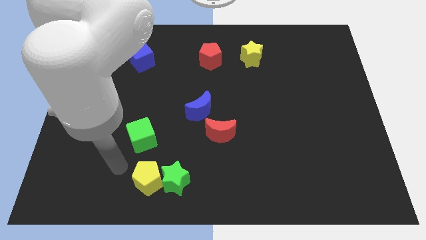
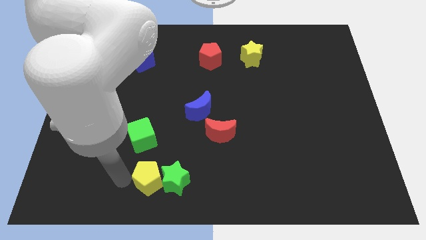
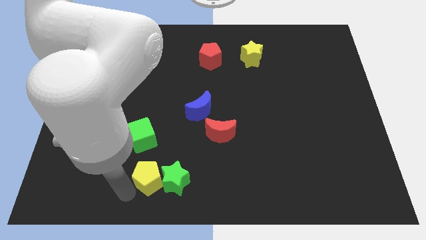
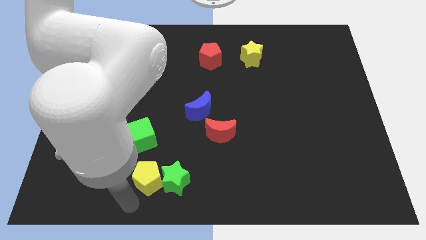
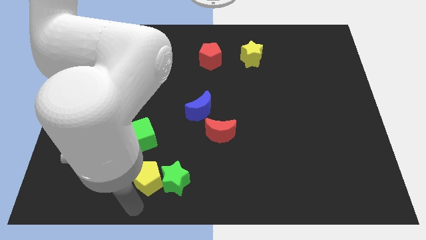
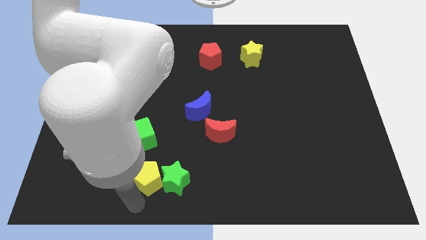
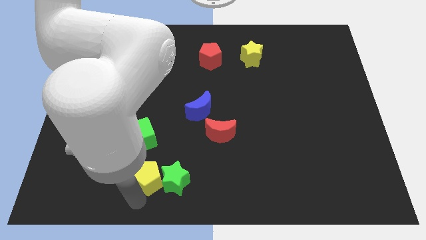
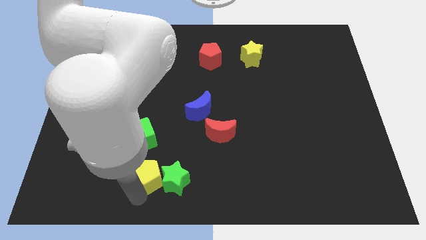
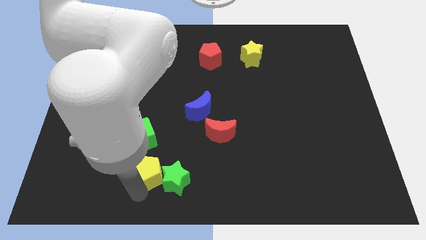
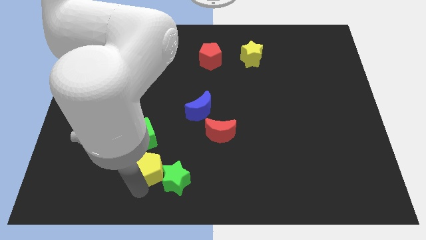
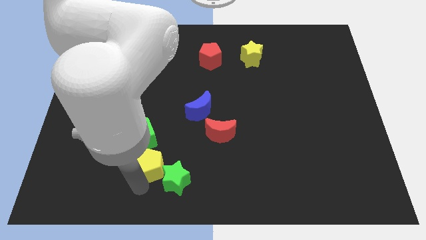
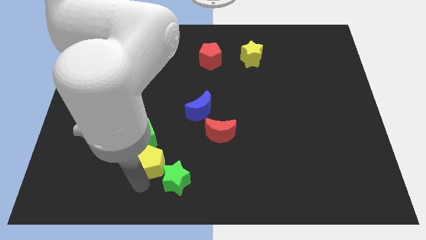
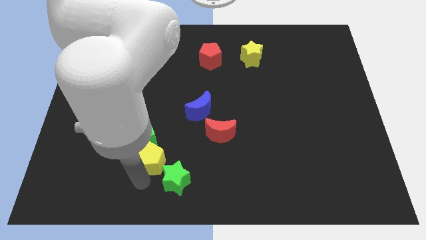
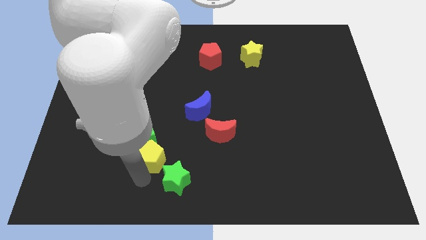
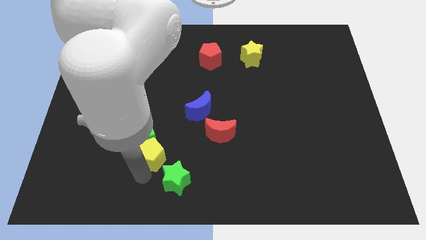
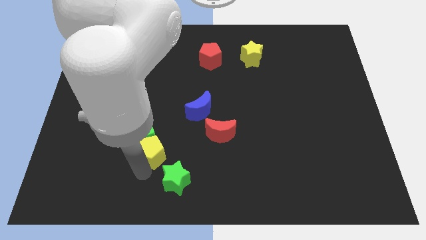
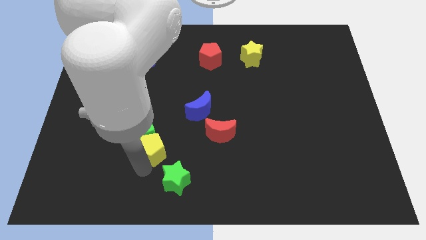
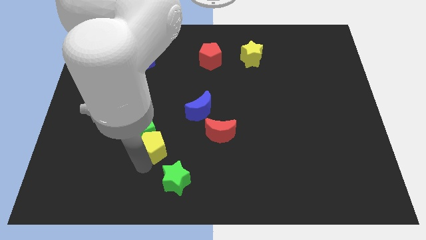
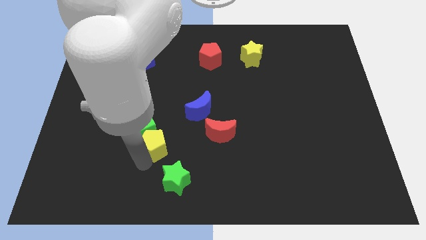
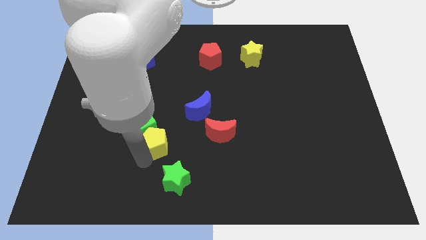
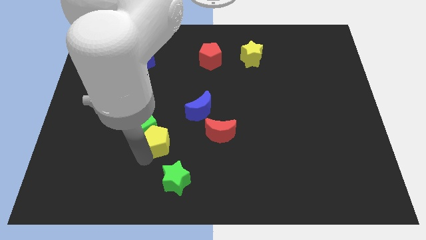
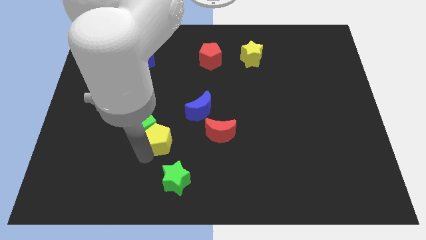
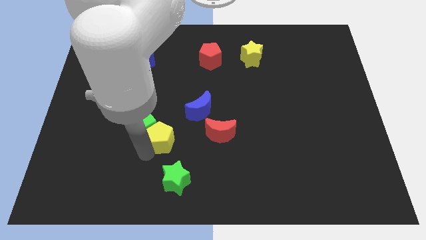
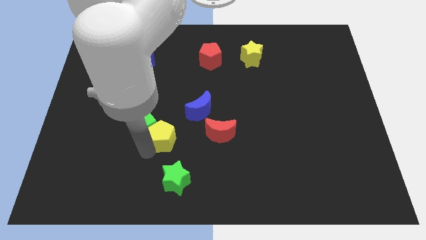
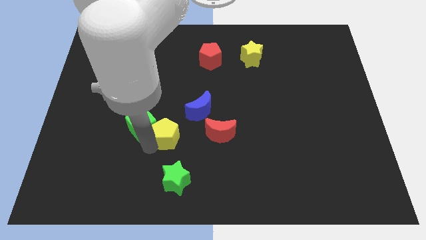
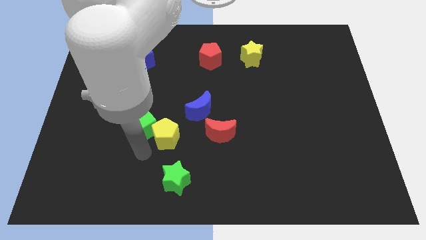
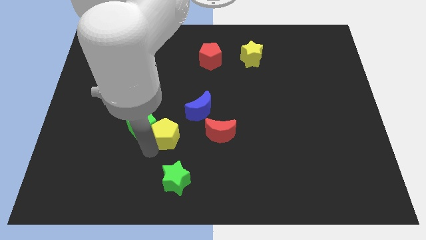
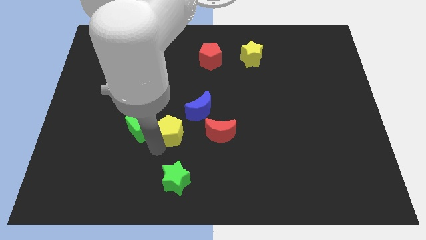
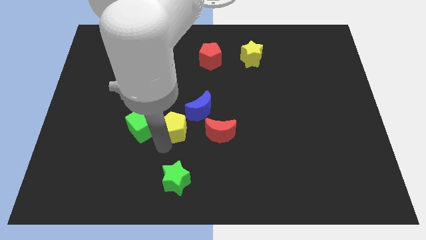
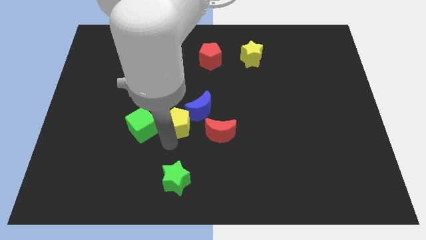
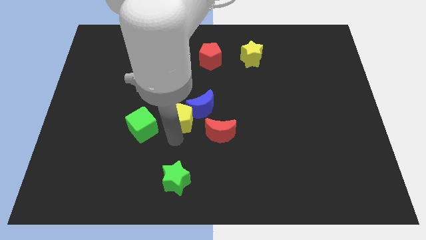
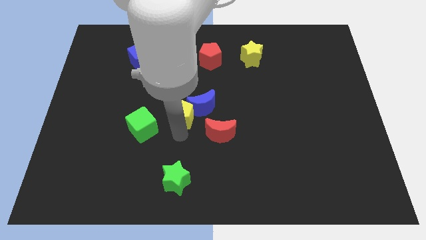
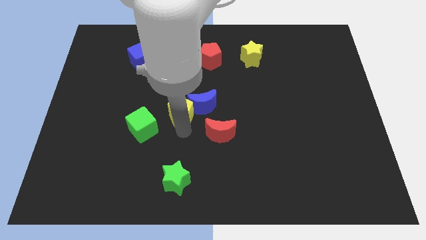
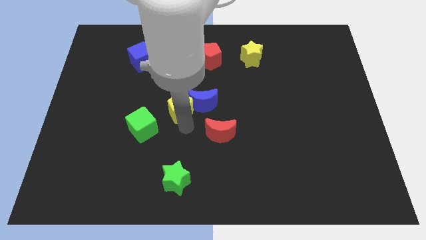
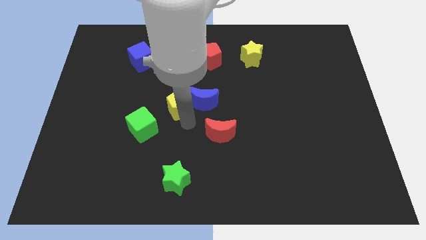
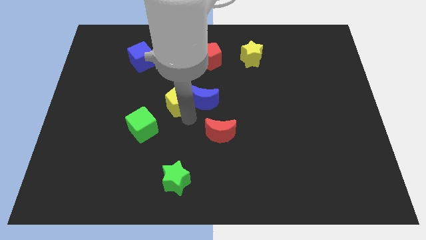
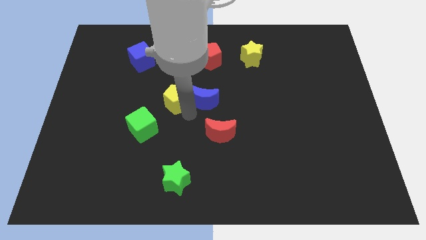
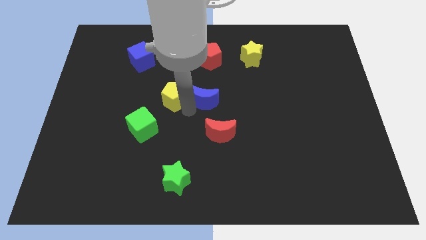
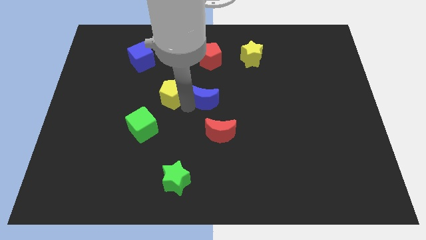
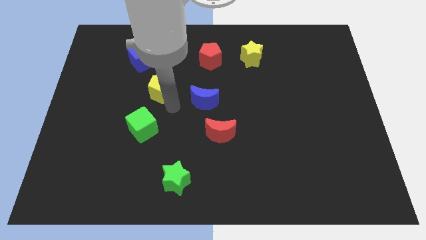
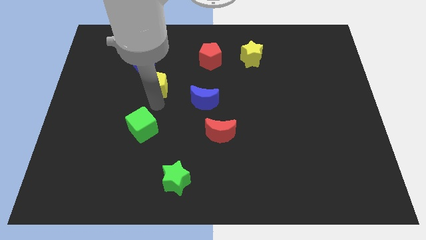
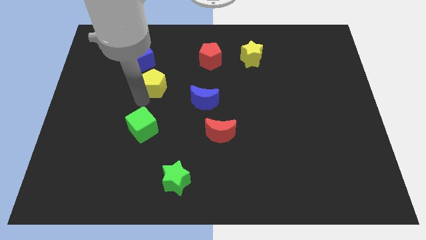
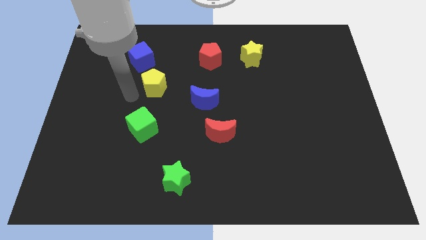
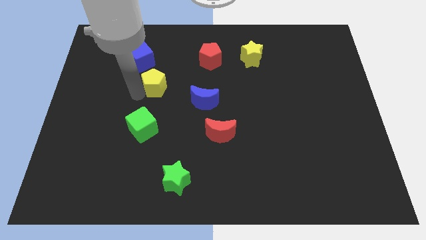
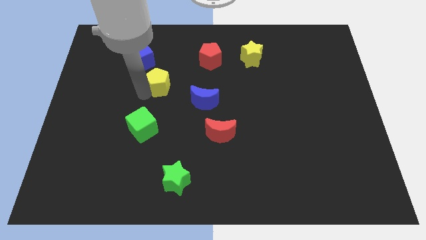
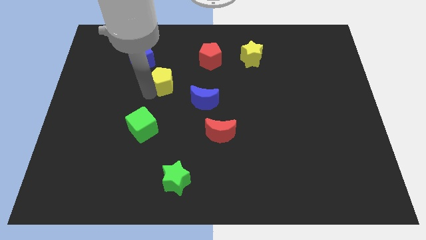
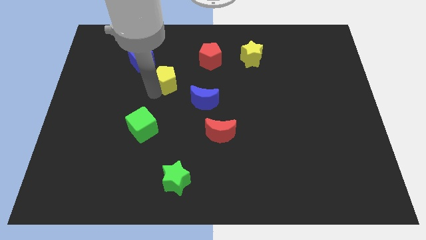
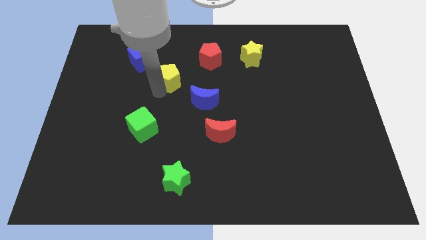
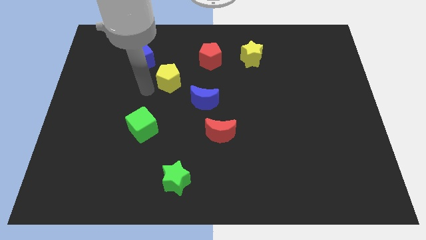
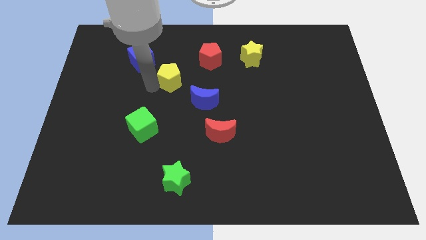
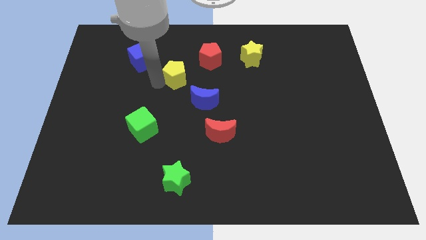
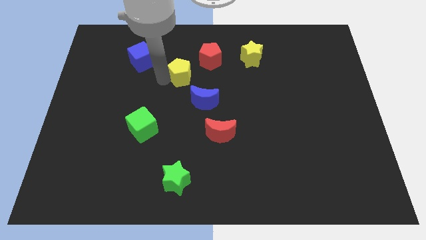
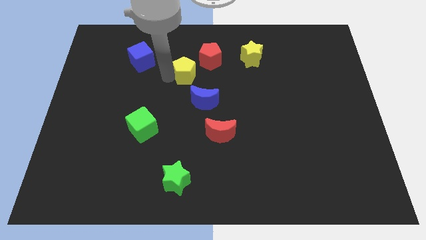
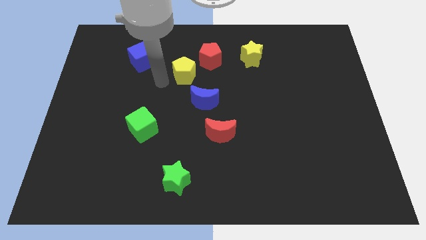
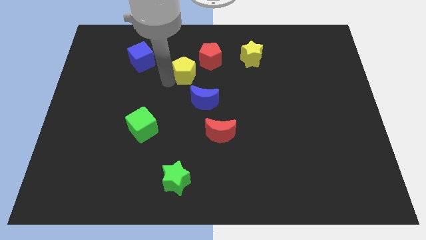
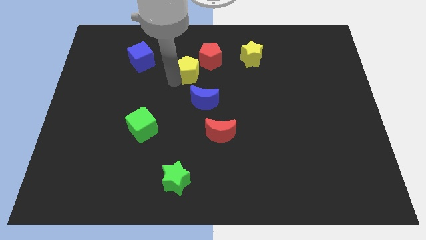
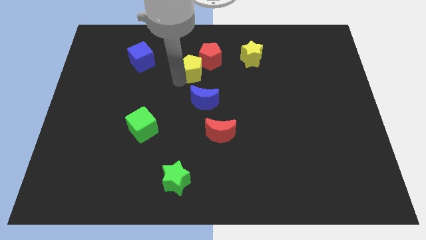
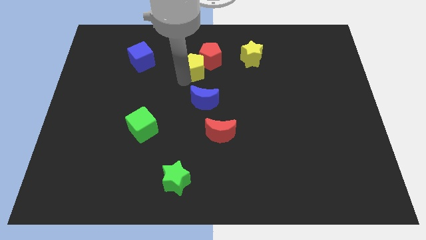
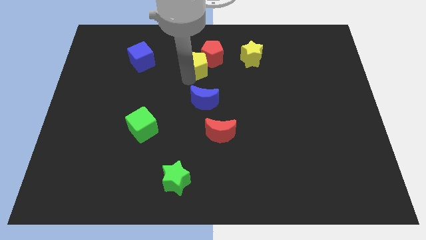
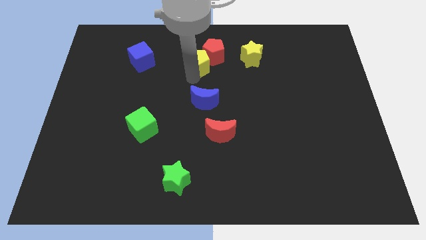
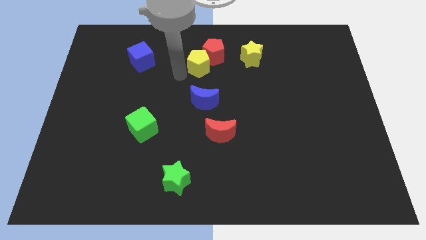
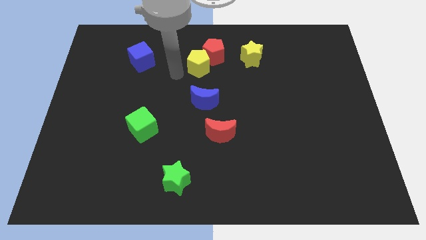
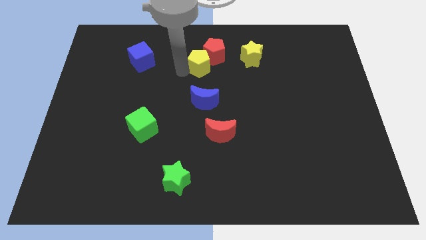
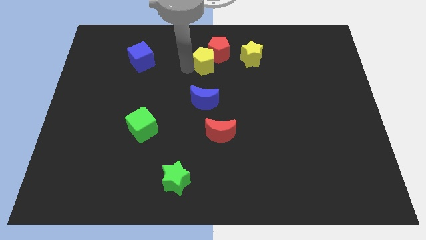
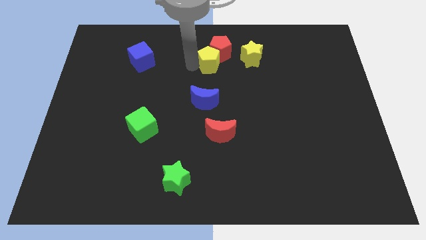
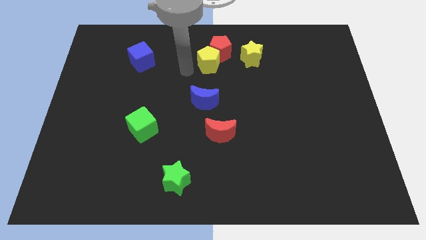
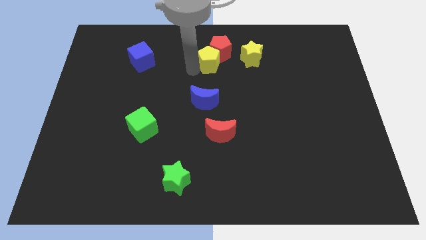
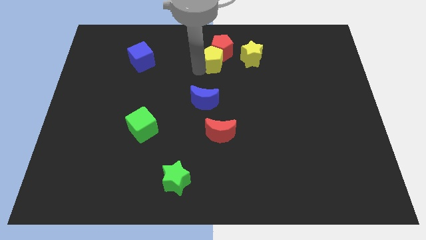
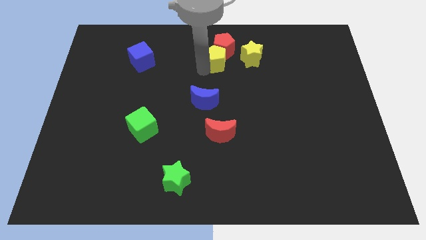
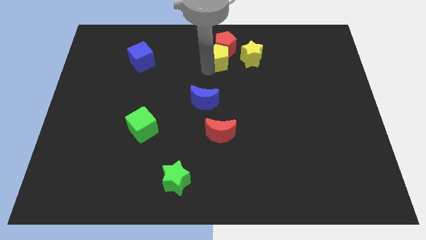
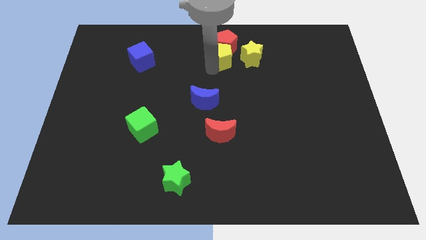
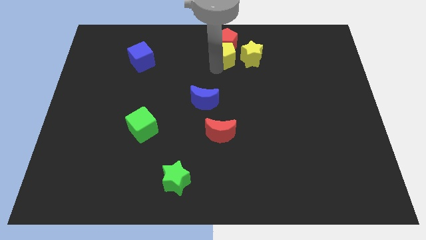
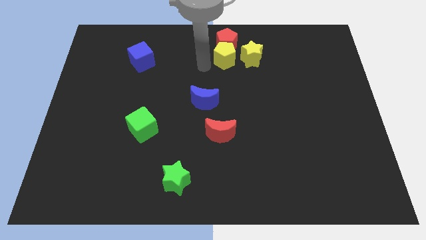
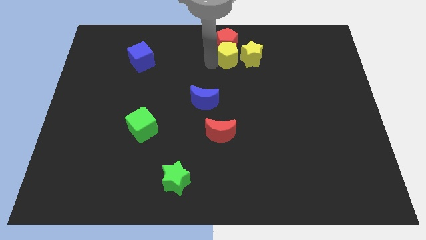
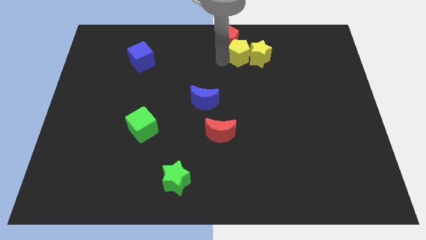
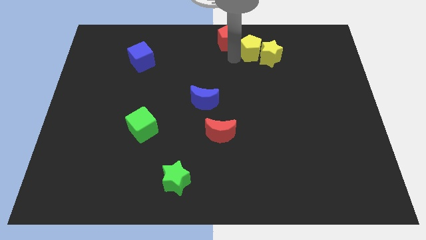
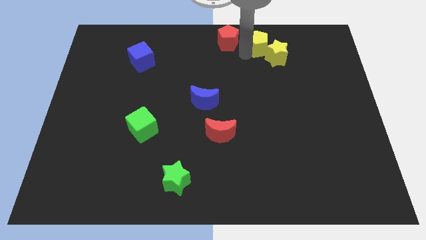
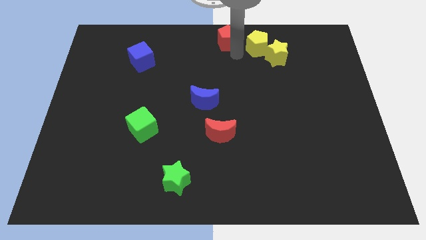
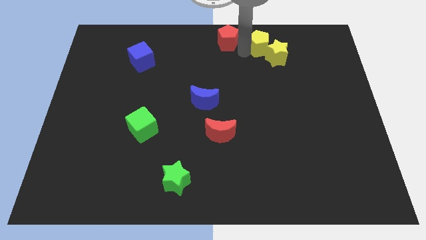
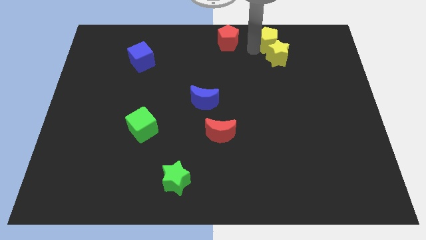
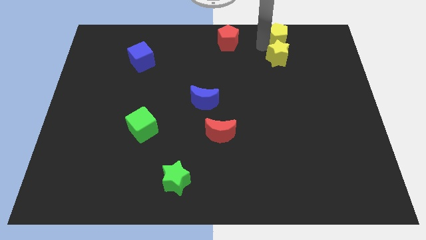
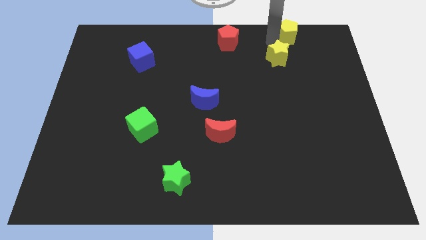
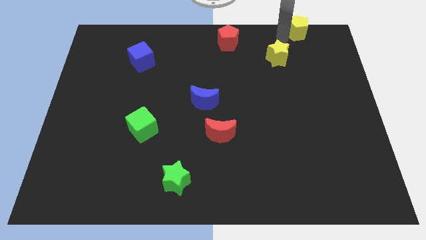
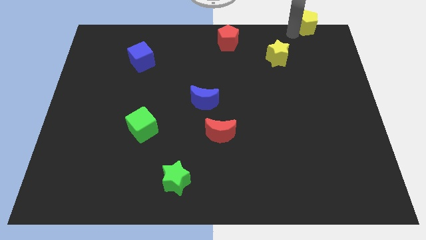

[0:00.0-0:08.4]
move the yellow pentagon to the upper right corner
